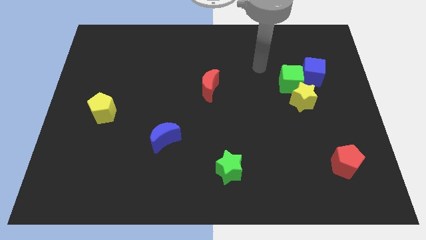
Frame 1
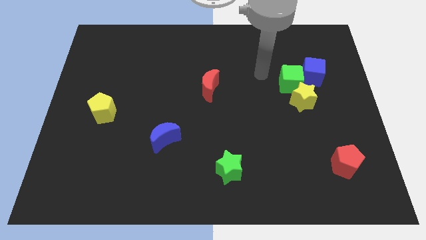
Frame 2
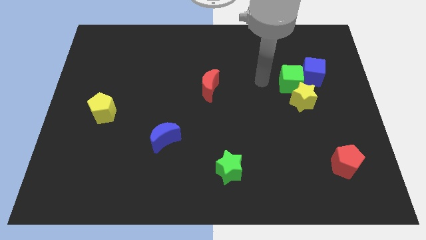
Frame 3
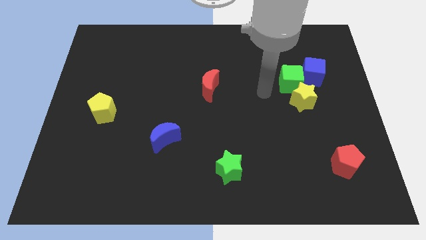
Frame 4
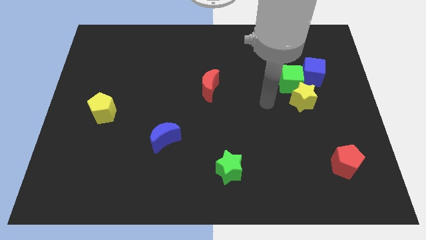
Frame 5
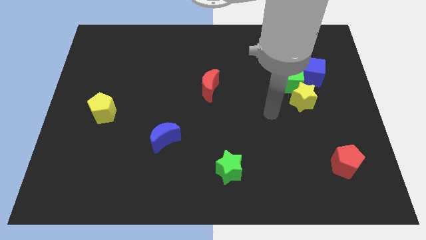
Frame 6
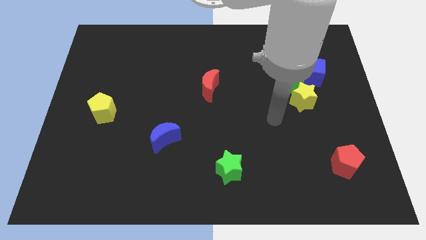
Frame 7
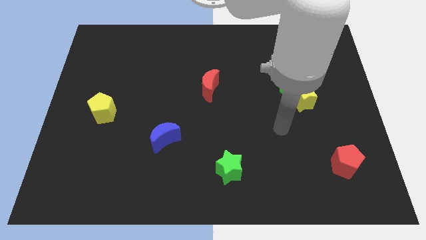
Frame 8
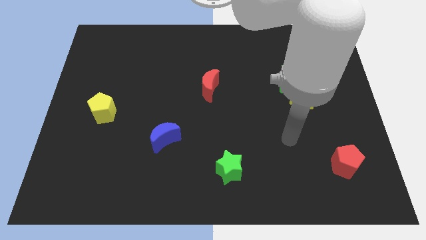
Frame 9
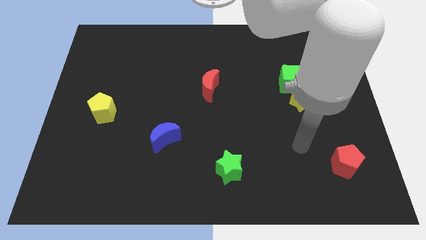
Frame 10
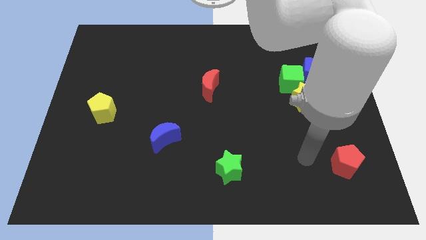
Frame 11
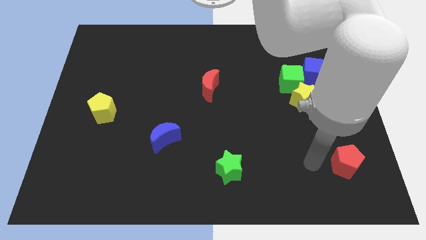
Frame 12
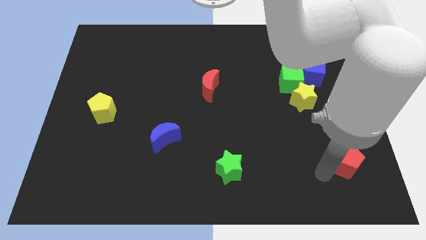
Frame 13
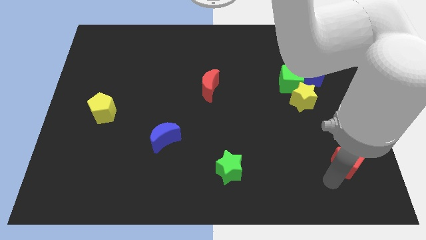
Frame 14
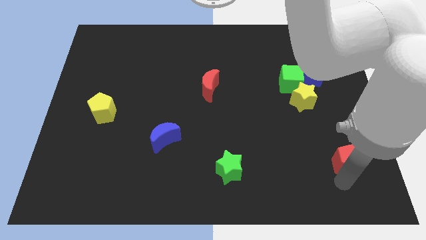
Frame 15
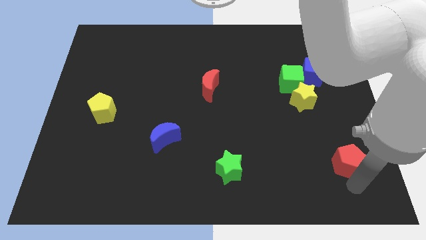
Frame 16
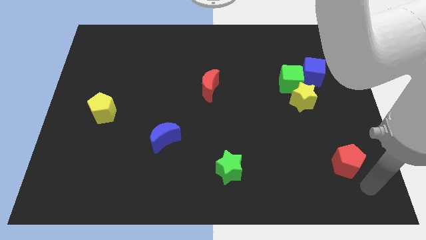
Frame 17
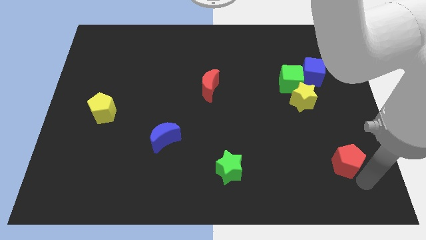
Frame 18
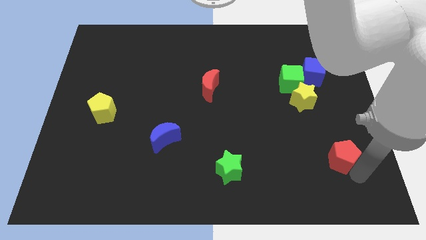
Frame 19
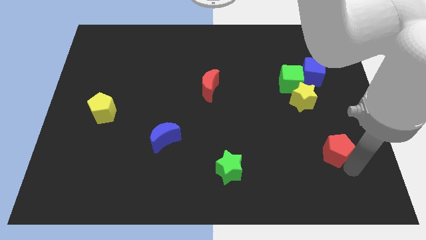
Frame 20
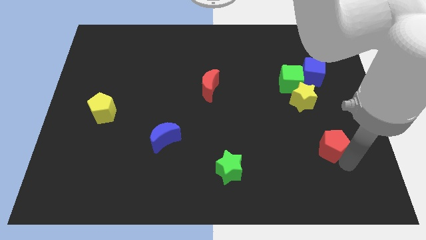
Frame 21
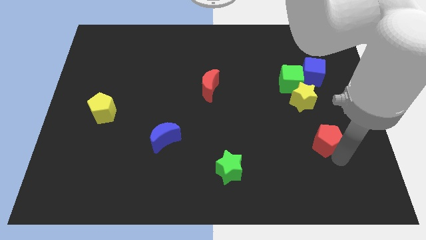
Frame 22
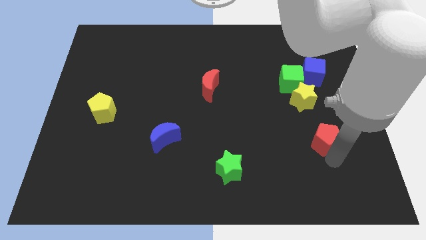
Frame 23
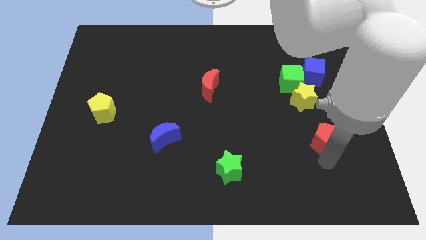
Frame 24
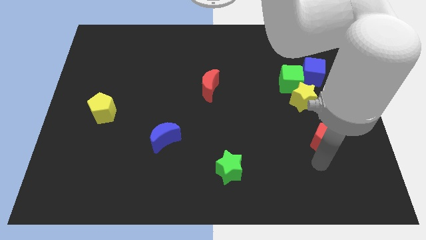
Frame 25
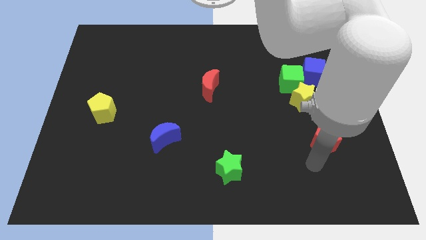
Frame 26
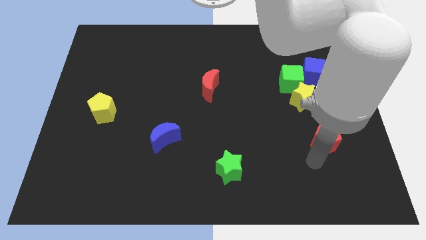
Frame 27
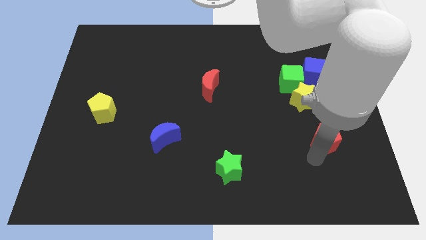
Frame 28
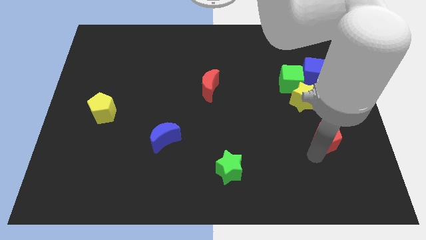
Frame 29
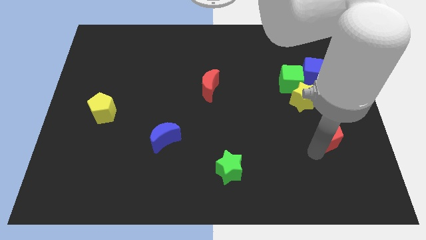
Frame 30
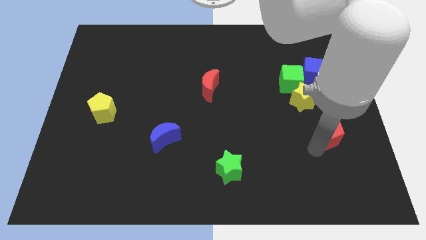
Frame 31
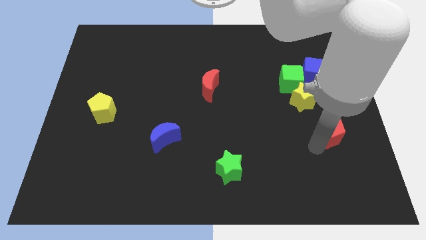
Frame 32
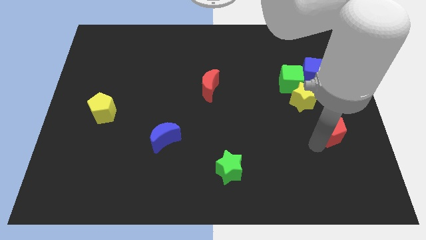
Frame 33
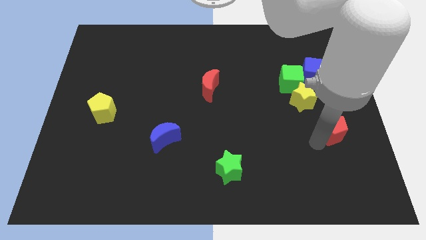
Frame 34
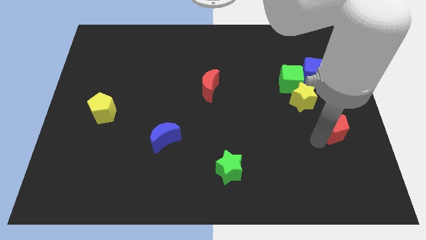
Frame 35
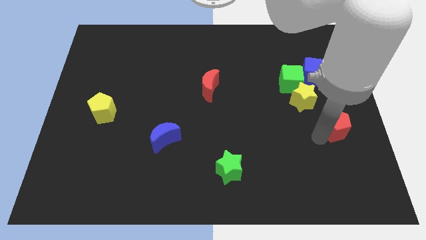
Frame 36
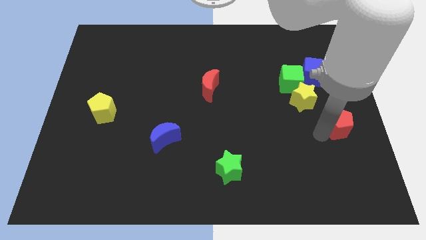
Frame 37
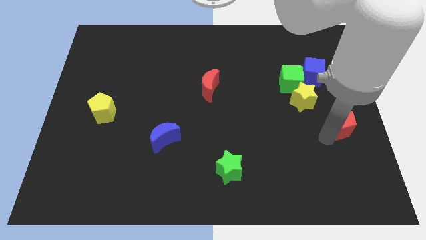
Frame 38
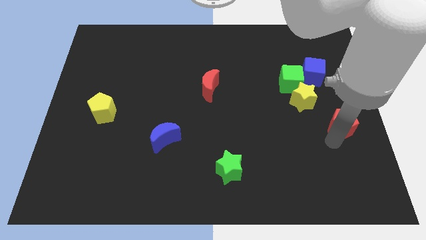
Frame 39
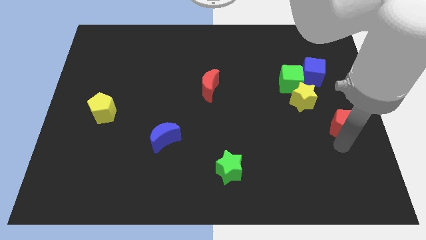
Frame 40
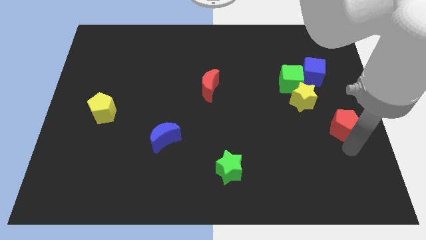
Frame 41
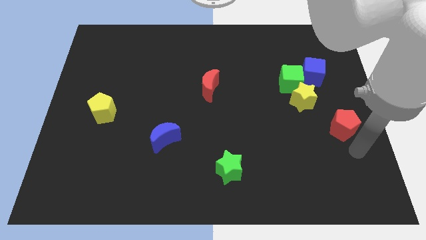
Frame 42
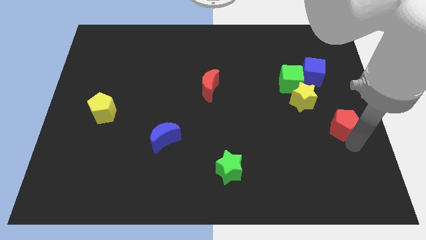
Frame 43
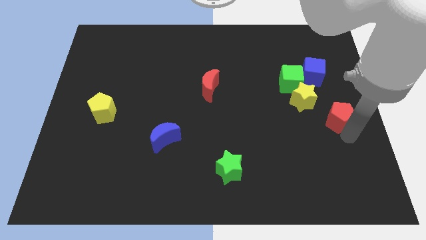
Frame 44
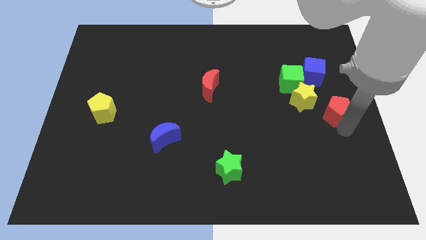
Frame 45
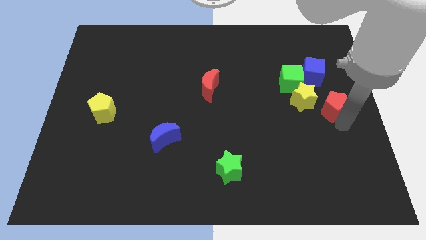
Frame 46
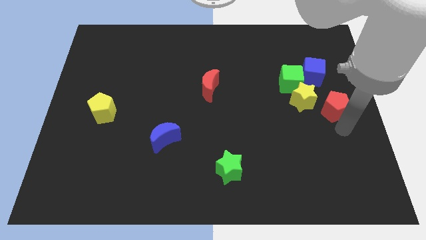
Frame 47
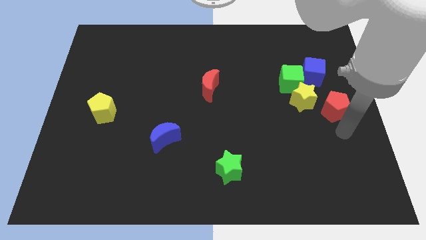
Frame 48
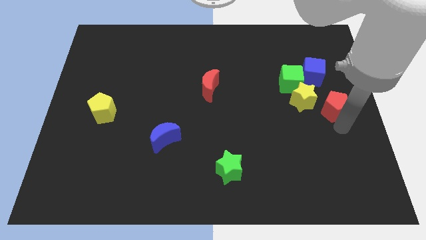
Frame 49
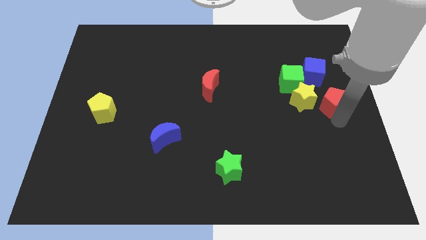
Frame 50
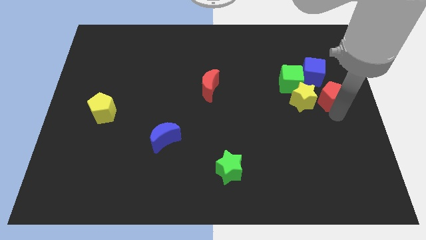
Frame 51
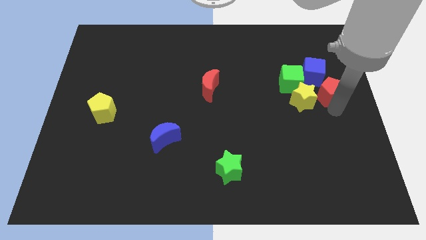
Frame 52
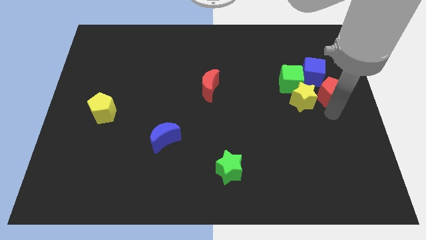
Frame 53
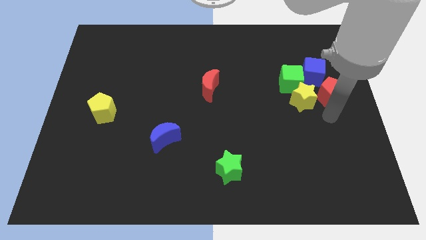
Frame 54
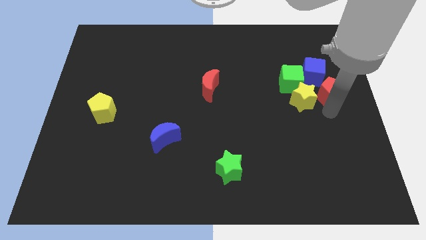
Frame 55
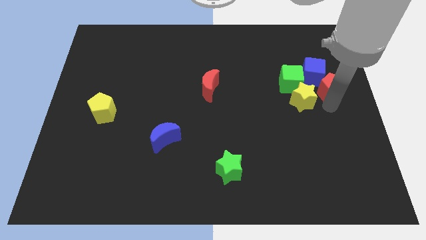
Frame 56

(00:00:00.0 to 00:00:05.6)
push the red pentagon up

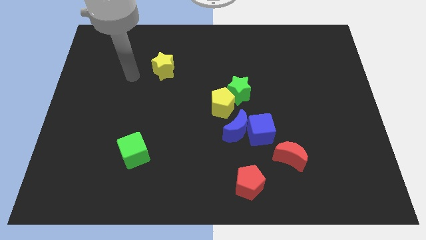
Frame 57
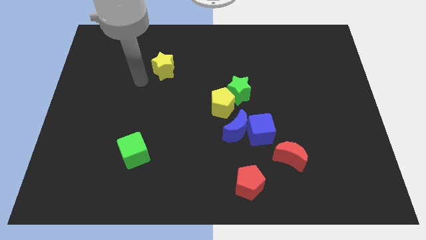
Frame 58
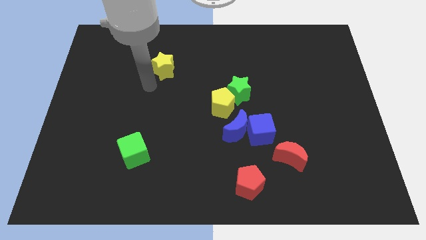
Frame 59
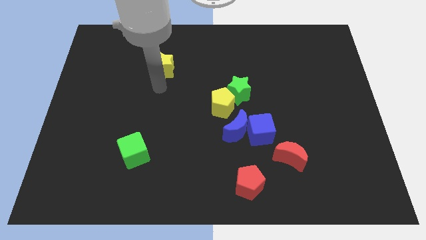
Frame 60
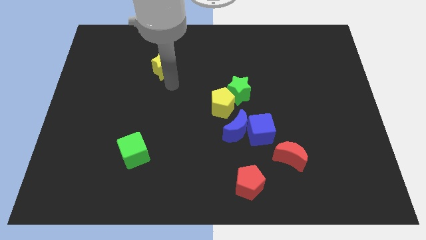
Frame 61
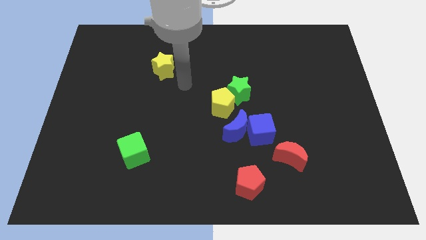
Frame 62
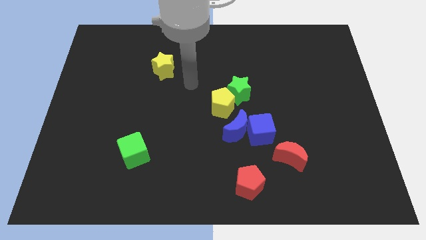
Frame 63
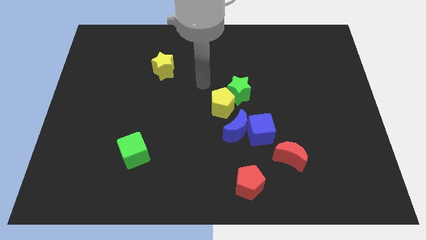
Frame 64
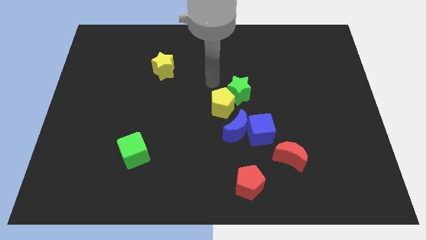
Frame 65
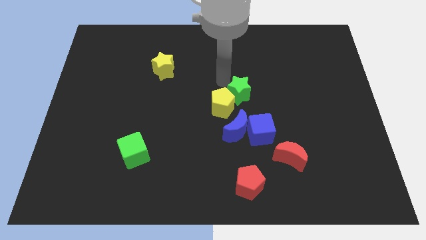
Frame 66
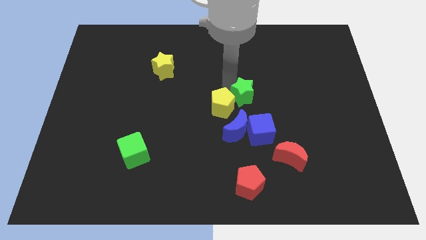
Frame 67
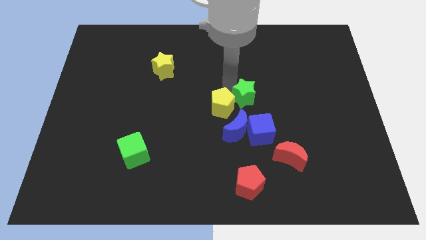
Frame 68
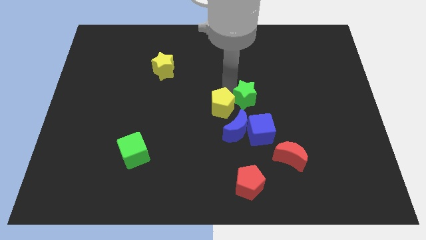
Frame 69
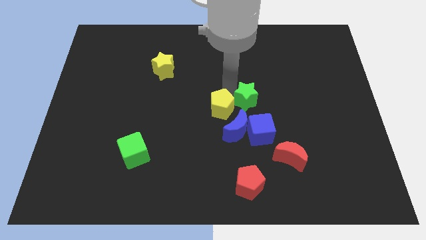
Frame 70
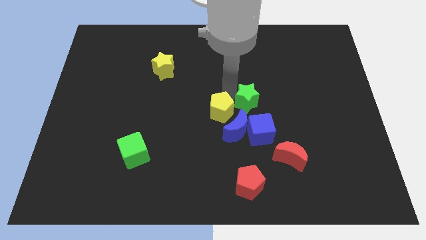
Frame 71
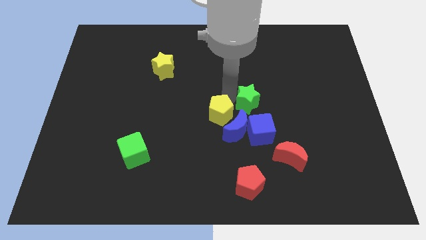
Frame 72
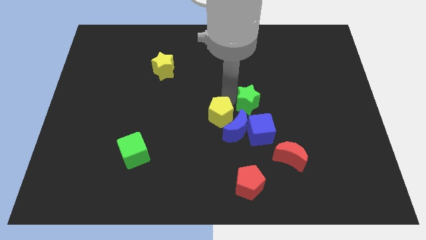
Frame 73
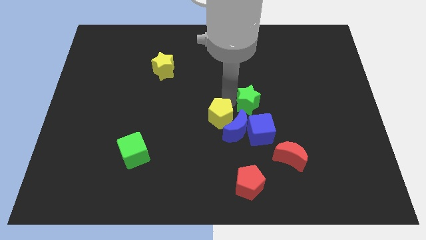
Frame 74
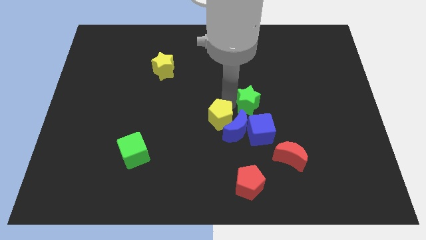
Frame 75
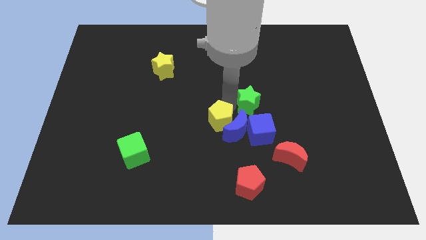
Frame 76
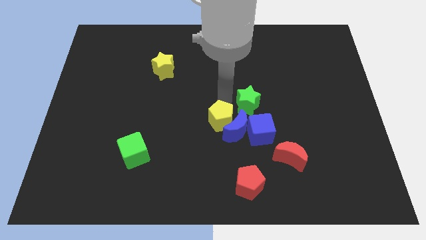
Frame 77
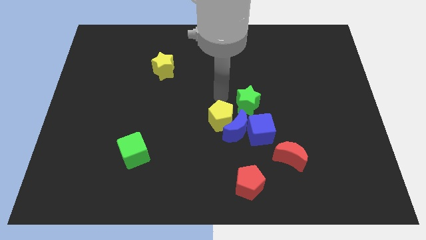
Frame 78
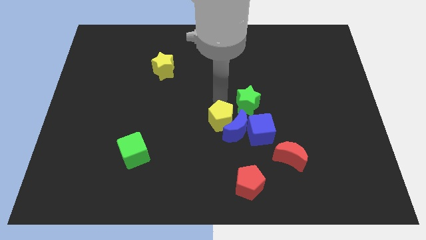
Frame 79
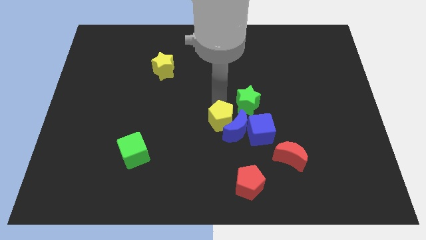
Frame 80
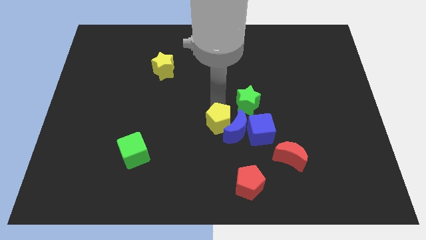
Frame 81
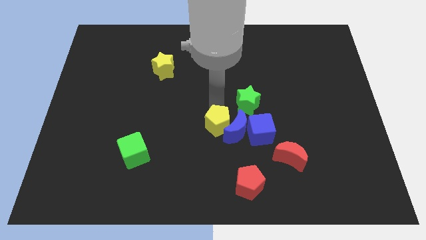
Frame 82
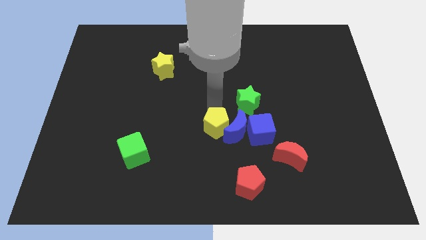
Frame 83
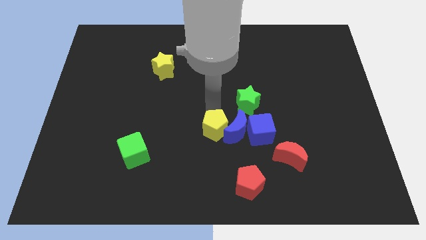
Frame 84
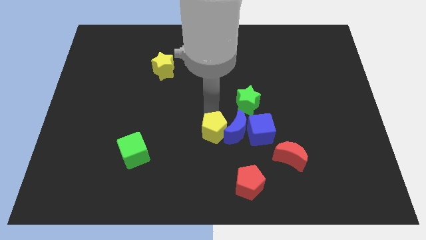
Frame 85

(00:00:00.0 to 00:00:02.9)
slightly slide the yellow pentagon downwards
